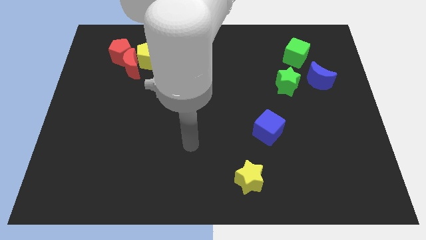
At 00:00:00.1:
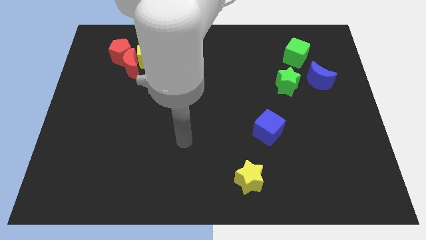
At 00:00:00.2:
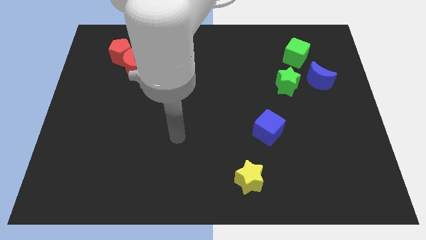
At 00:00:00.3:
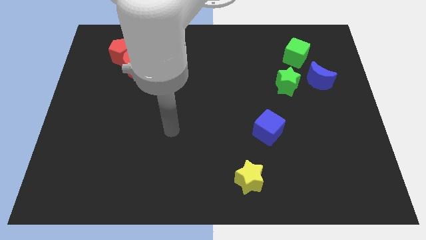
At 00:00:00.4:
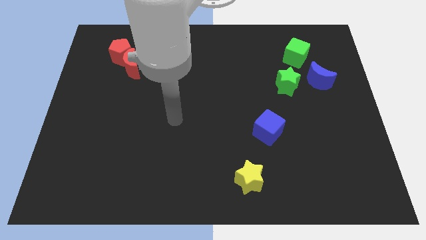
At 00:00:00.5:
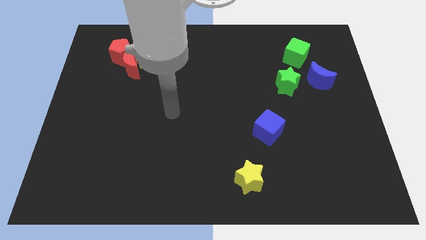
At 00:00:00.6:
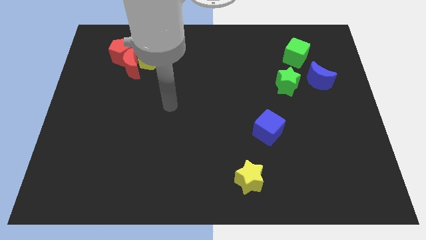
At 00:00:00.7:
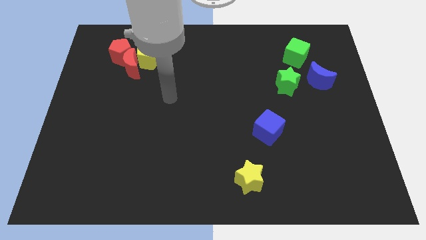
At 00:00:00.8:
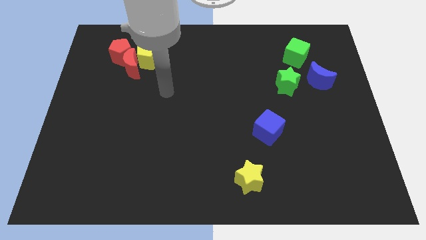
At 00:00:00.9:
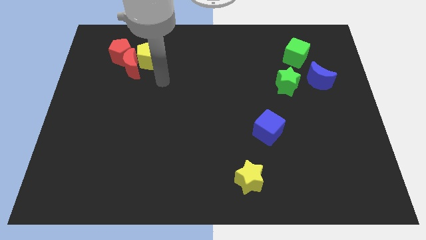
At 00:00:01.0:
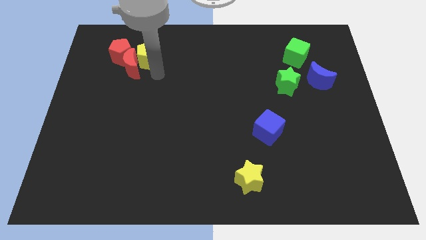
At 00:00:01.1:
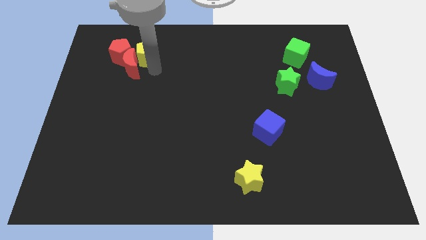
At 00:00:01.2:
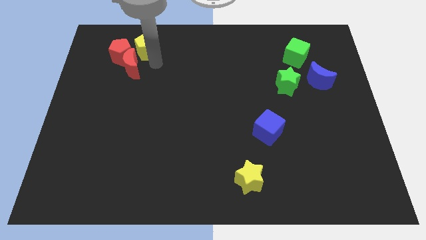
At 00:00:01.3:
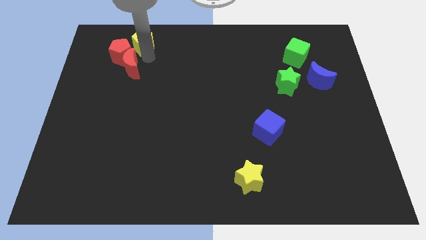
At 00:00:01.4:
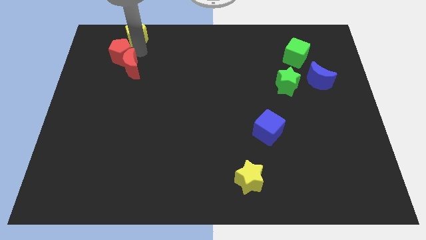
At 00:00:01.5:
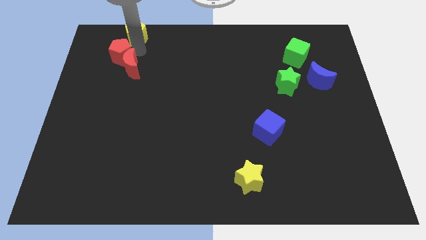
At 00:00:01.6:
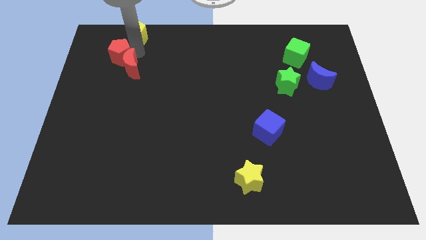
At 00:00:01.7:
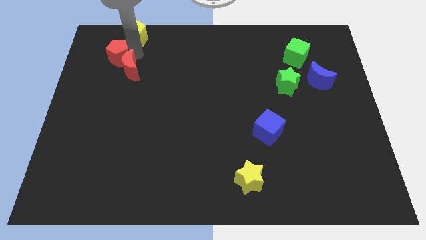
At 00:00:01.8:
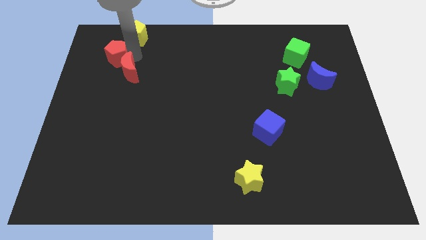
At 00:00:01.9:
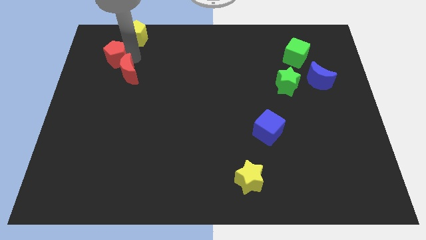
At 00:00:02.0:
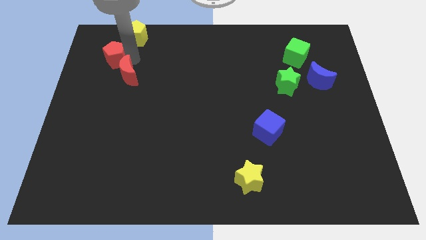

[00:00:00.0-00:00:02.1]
pull the red moon apart from the yellow pentagon and red pentagon

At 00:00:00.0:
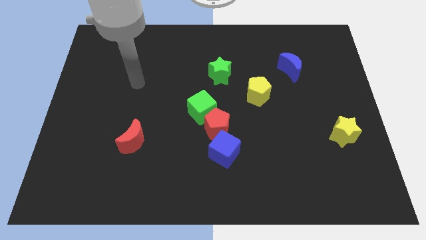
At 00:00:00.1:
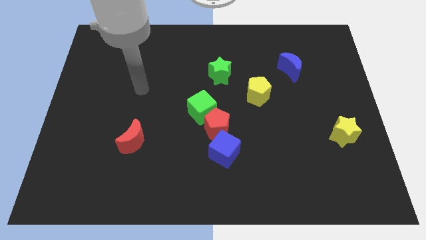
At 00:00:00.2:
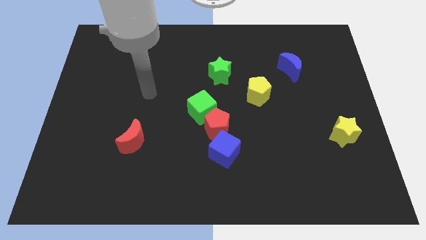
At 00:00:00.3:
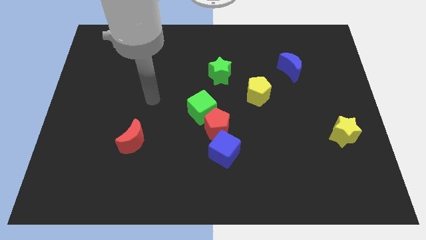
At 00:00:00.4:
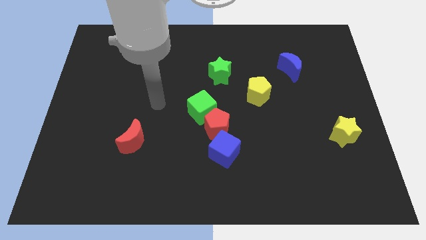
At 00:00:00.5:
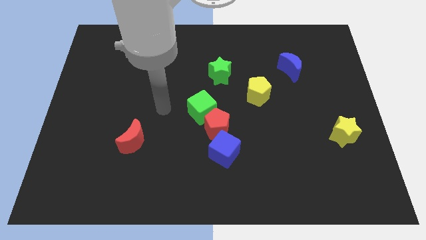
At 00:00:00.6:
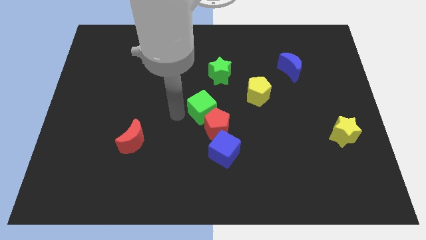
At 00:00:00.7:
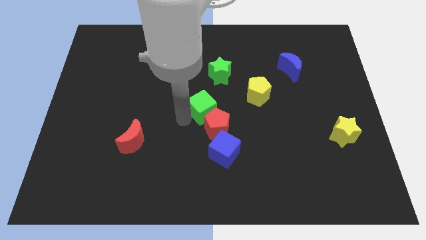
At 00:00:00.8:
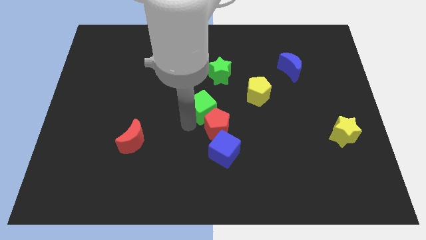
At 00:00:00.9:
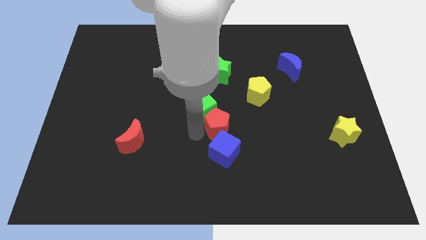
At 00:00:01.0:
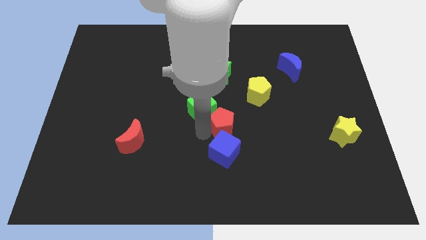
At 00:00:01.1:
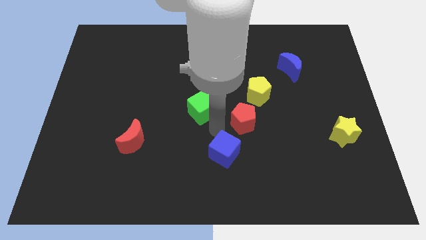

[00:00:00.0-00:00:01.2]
separate the green cube from the red pentagon

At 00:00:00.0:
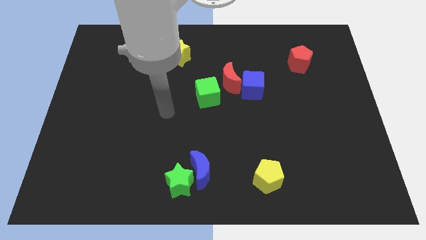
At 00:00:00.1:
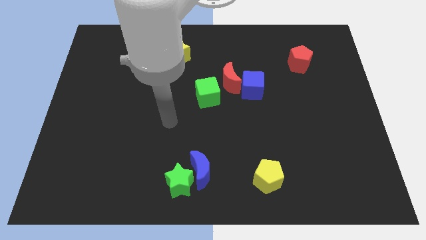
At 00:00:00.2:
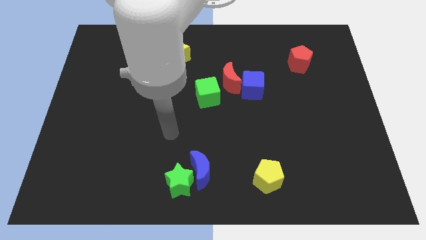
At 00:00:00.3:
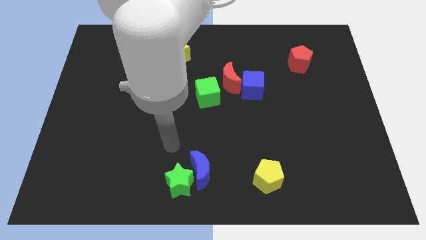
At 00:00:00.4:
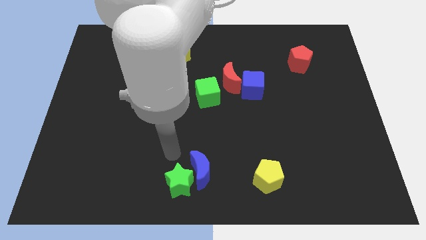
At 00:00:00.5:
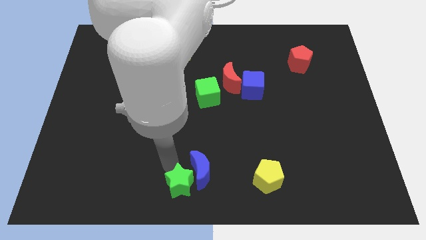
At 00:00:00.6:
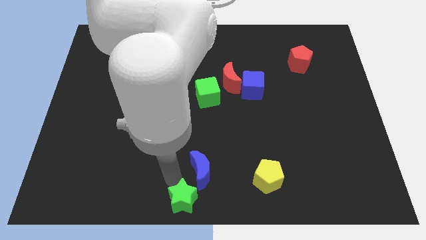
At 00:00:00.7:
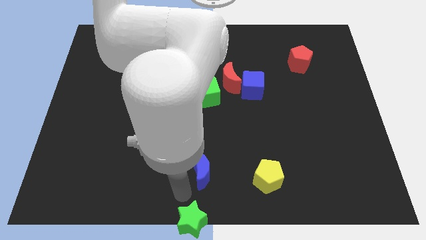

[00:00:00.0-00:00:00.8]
separate the blue moon from the green star

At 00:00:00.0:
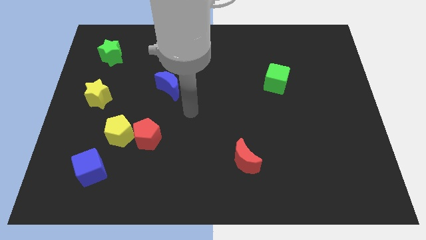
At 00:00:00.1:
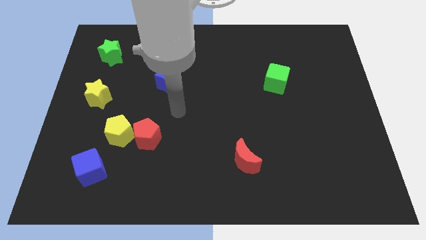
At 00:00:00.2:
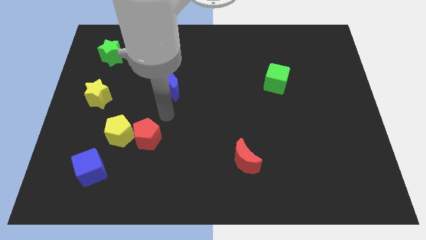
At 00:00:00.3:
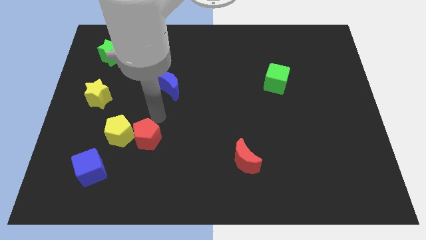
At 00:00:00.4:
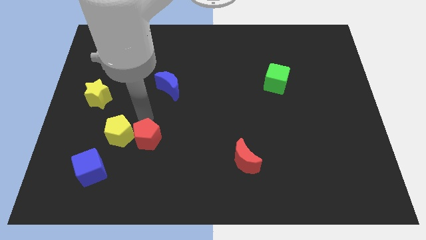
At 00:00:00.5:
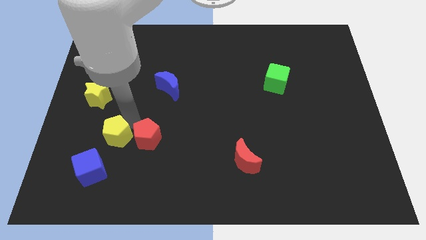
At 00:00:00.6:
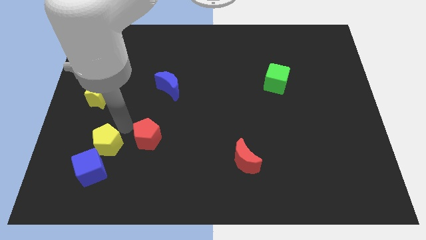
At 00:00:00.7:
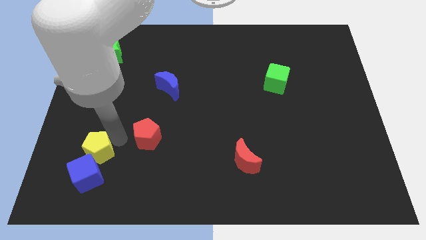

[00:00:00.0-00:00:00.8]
separate the red pentagon from the yellow pentagon

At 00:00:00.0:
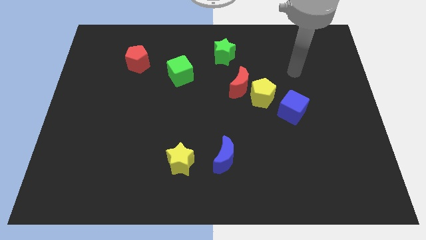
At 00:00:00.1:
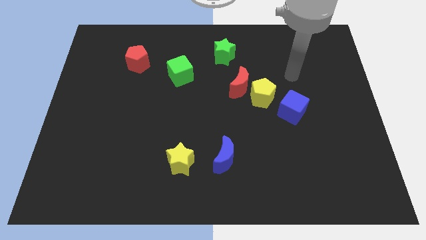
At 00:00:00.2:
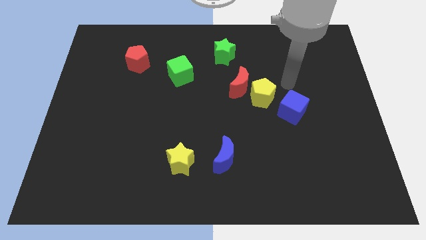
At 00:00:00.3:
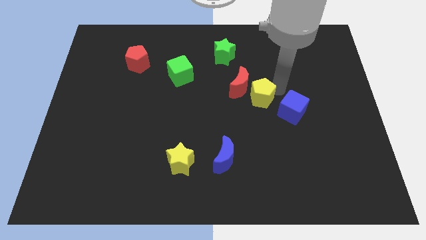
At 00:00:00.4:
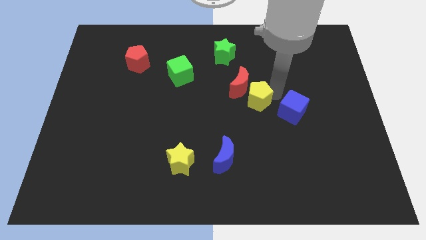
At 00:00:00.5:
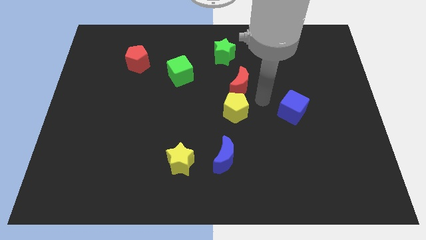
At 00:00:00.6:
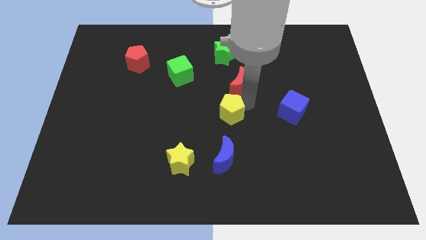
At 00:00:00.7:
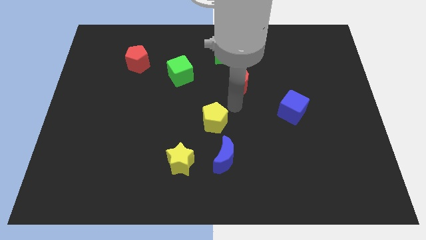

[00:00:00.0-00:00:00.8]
move the red moon away from the yellow pentagon

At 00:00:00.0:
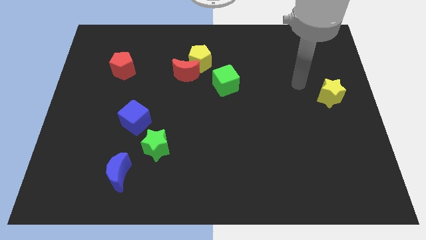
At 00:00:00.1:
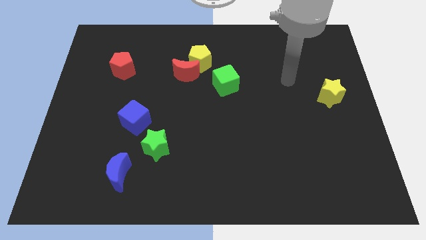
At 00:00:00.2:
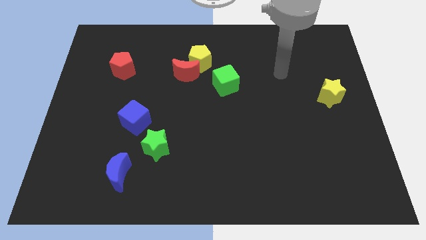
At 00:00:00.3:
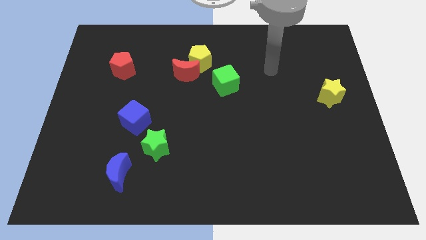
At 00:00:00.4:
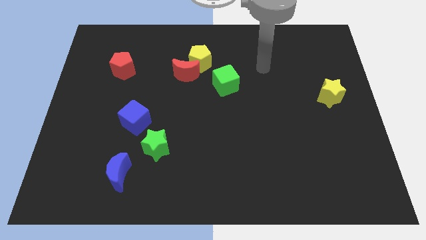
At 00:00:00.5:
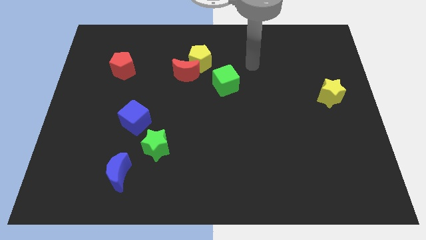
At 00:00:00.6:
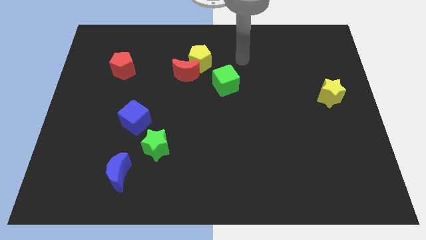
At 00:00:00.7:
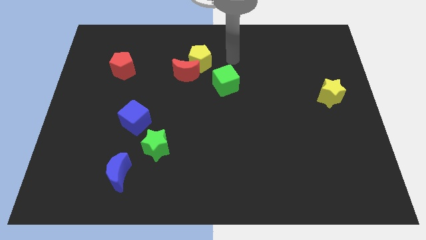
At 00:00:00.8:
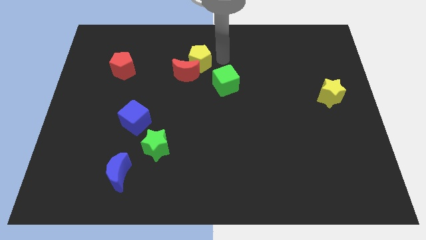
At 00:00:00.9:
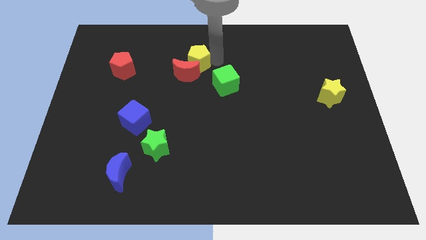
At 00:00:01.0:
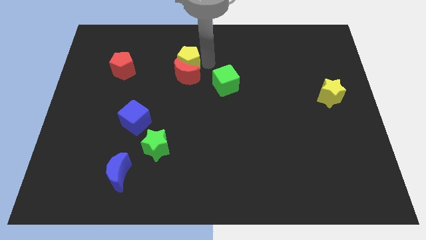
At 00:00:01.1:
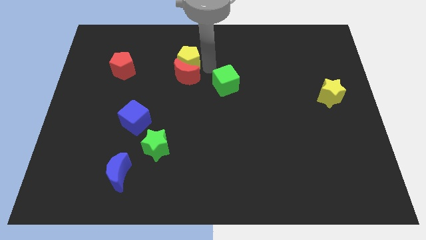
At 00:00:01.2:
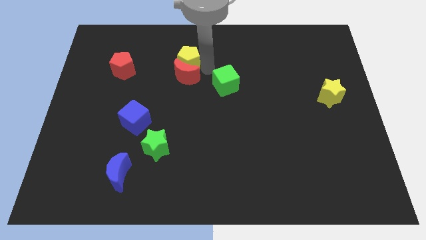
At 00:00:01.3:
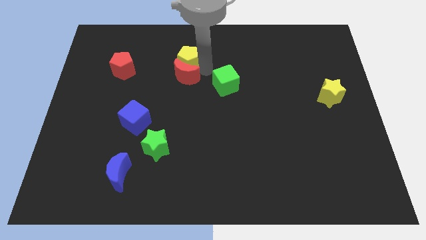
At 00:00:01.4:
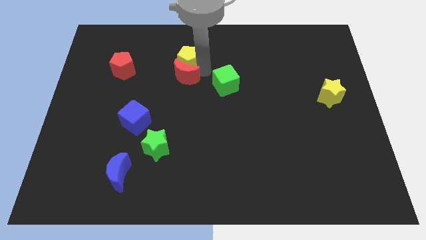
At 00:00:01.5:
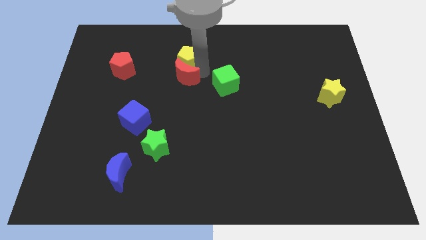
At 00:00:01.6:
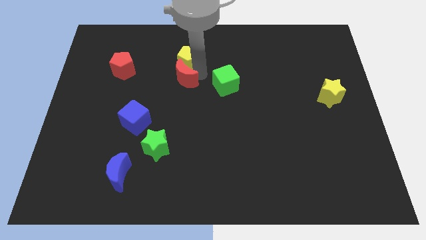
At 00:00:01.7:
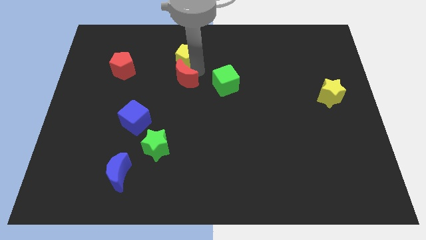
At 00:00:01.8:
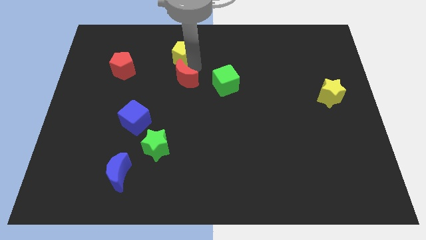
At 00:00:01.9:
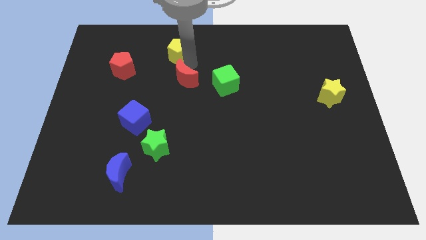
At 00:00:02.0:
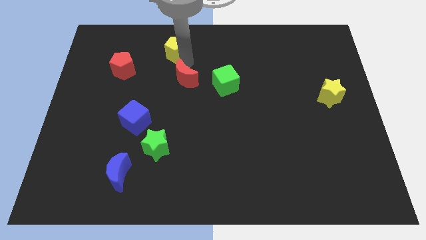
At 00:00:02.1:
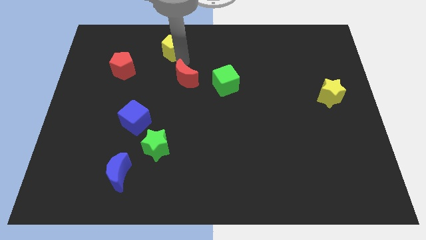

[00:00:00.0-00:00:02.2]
separate the red moon from the yellow pentagon

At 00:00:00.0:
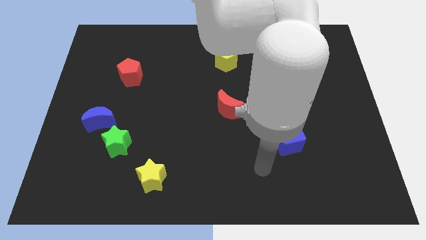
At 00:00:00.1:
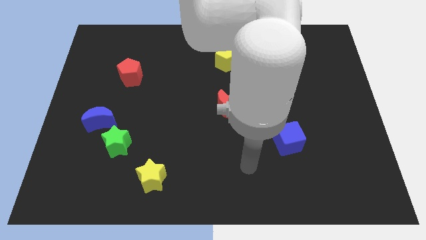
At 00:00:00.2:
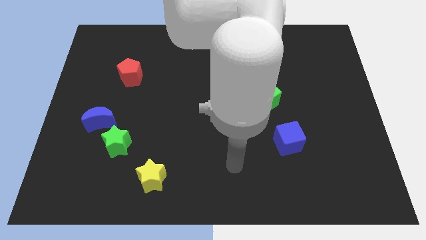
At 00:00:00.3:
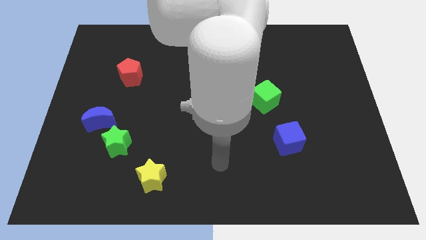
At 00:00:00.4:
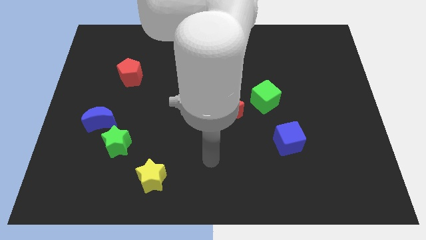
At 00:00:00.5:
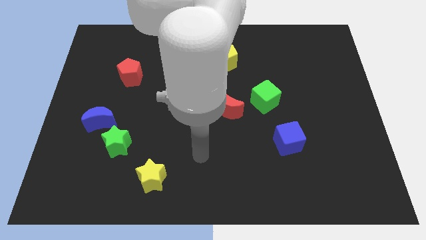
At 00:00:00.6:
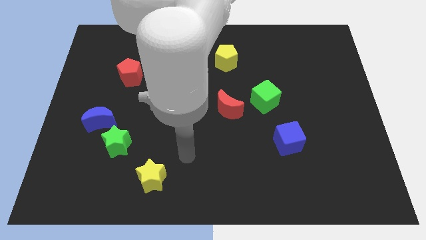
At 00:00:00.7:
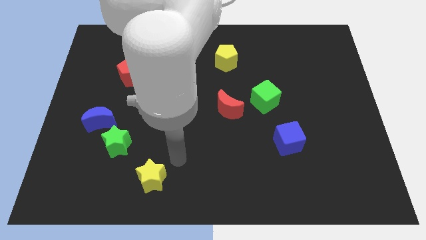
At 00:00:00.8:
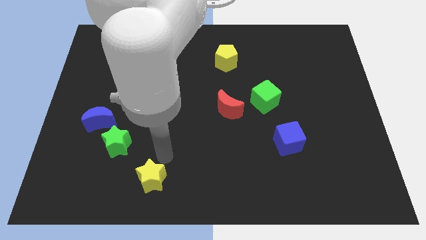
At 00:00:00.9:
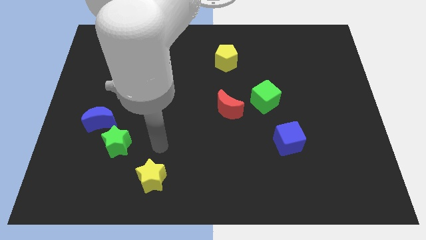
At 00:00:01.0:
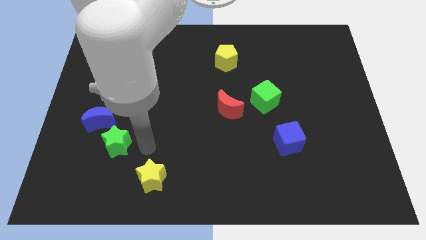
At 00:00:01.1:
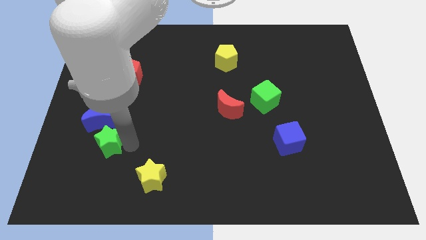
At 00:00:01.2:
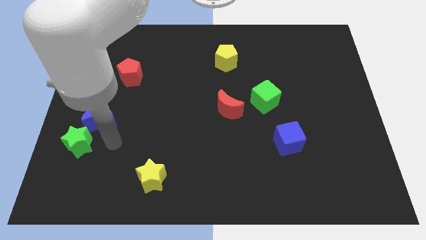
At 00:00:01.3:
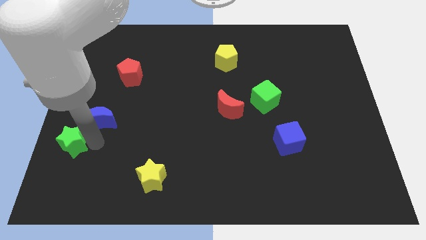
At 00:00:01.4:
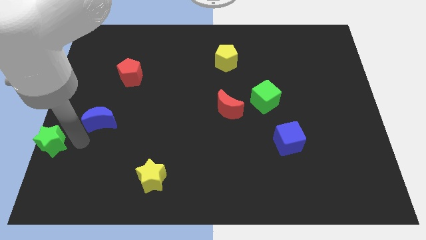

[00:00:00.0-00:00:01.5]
pull the blue moon apart from the green star
